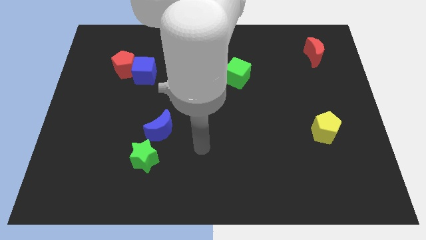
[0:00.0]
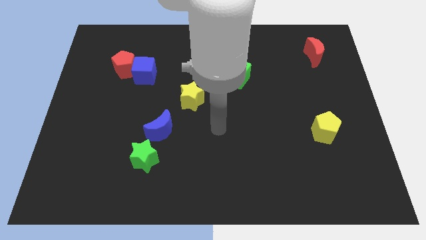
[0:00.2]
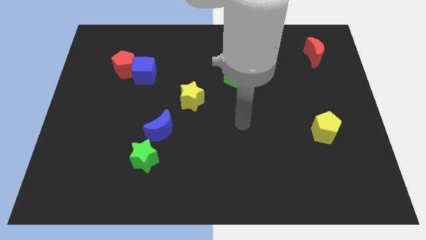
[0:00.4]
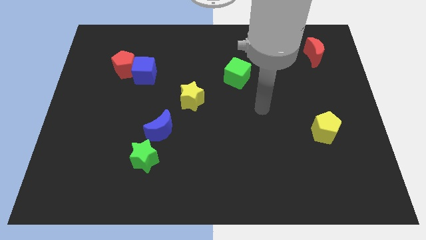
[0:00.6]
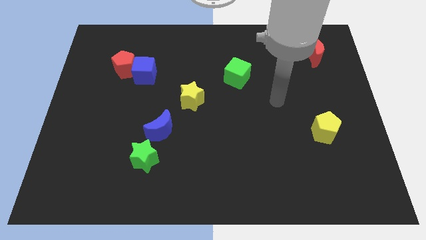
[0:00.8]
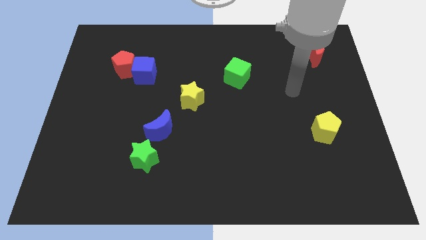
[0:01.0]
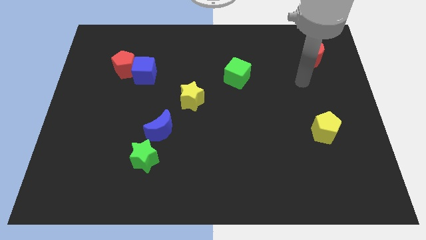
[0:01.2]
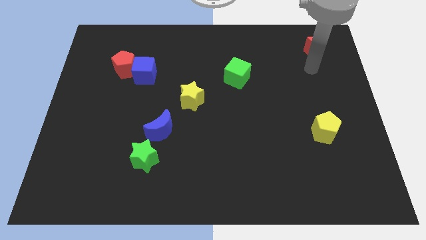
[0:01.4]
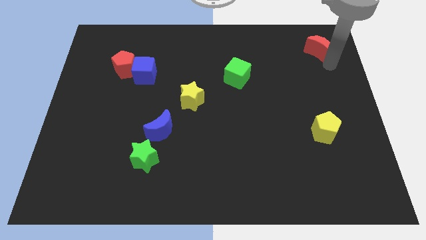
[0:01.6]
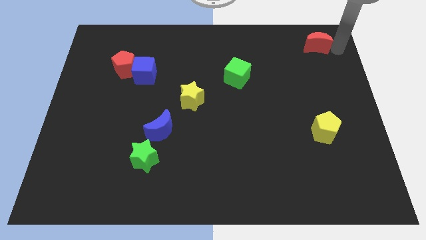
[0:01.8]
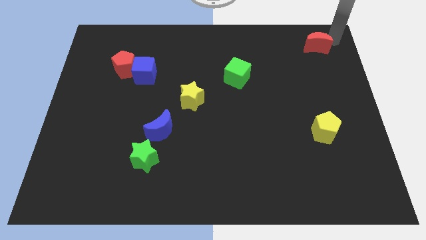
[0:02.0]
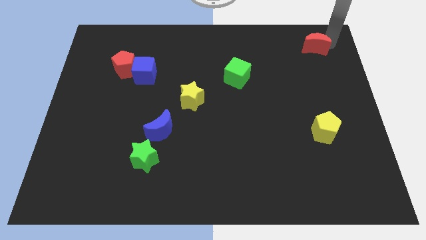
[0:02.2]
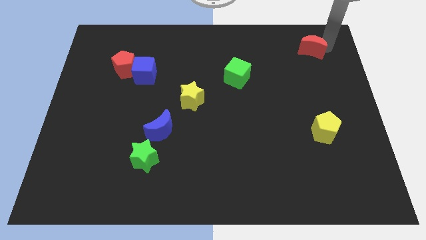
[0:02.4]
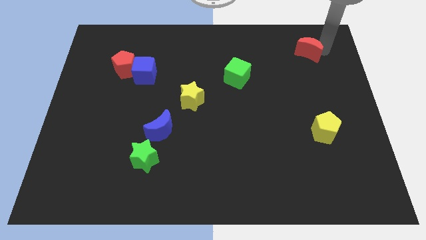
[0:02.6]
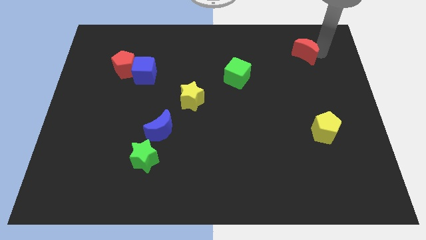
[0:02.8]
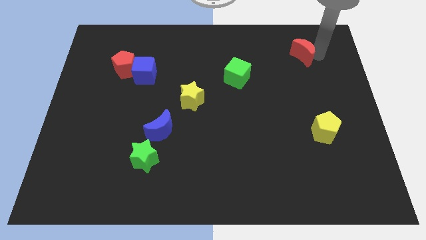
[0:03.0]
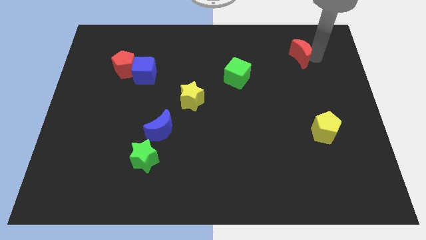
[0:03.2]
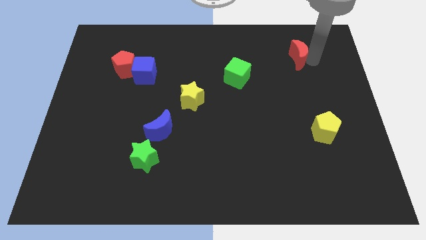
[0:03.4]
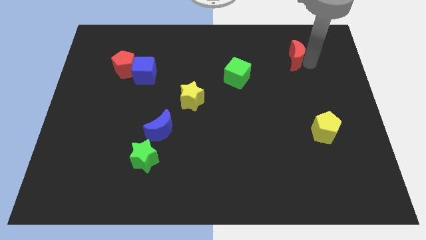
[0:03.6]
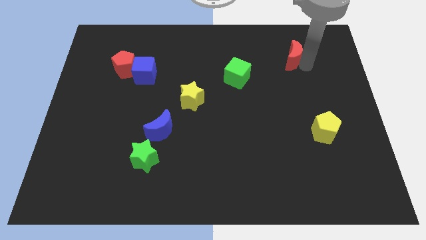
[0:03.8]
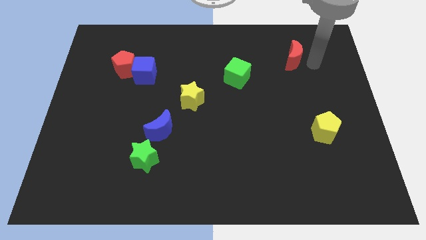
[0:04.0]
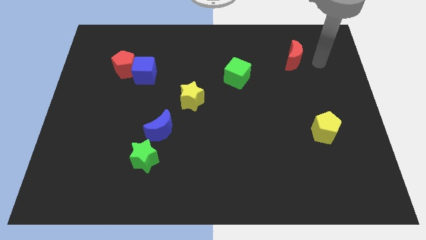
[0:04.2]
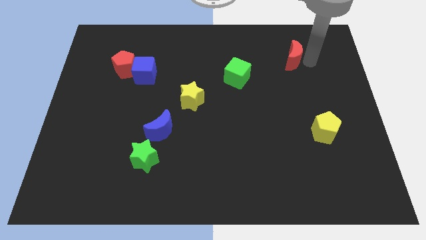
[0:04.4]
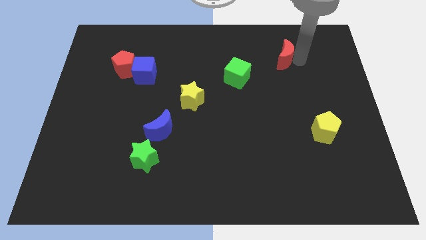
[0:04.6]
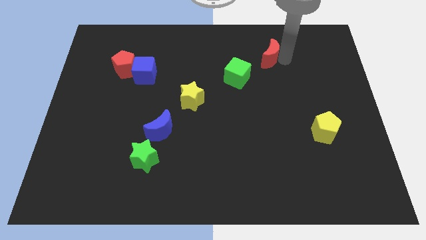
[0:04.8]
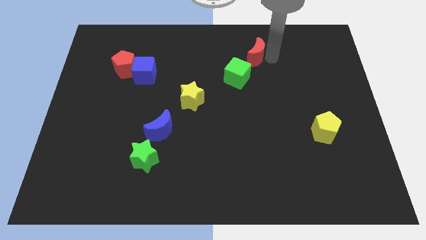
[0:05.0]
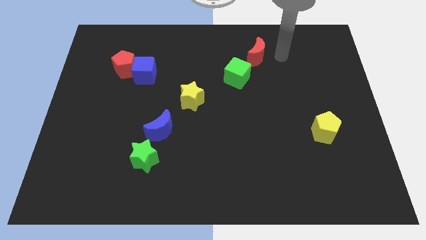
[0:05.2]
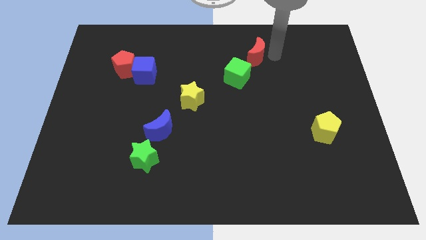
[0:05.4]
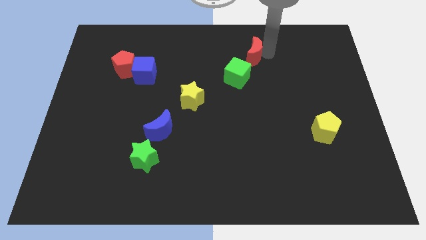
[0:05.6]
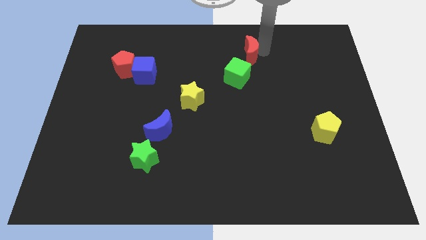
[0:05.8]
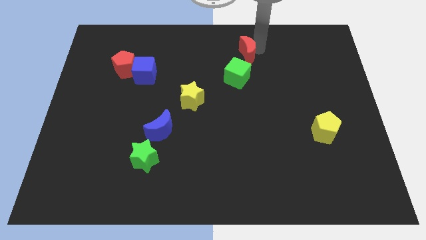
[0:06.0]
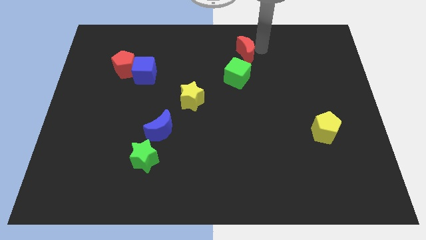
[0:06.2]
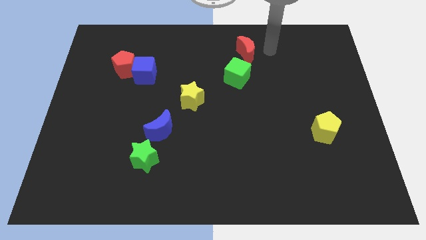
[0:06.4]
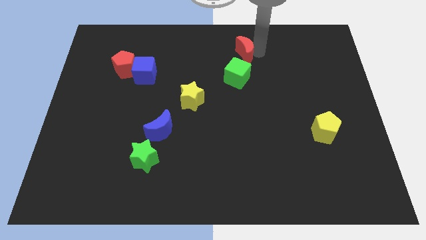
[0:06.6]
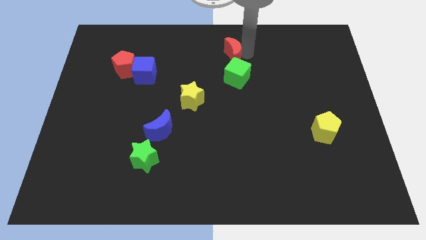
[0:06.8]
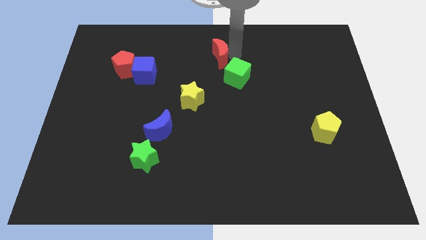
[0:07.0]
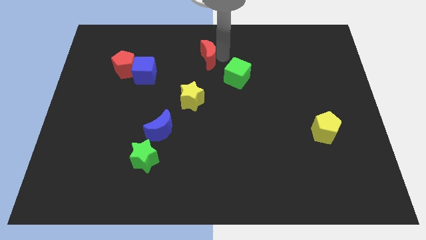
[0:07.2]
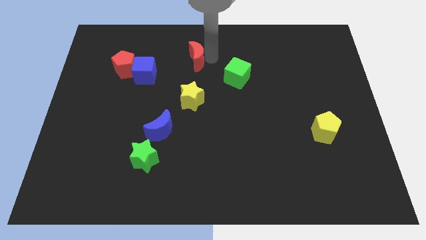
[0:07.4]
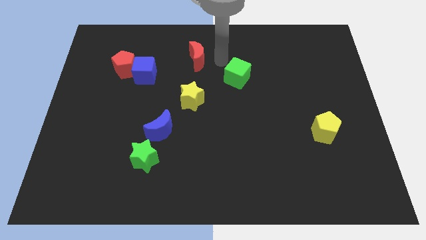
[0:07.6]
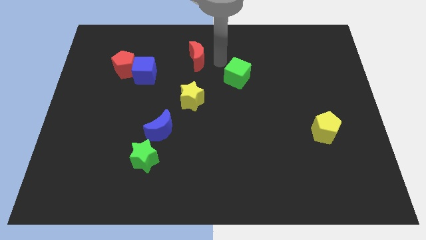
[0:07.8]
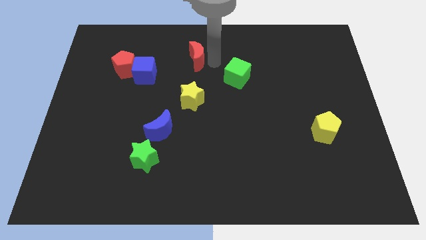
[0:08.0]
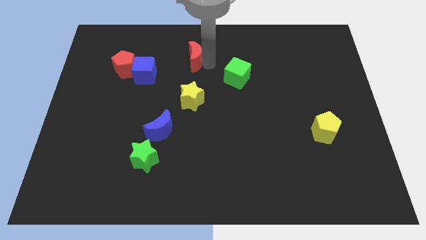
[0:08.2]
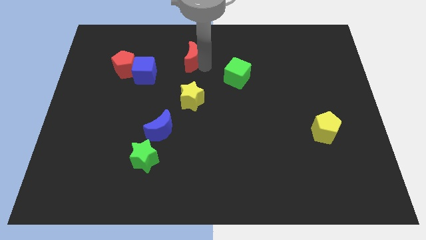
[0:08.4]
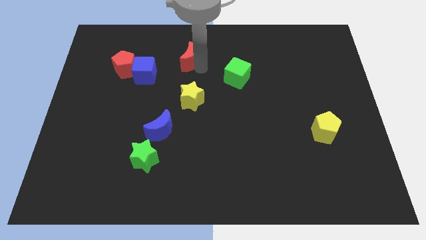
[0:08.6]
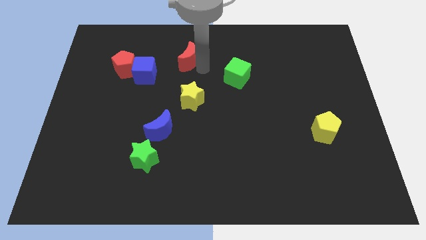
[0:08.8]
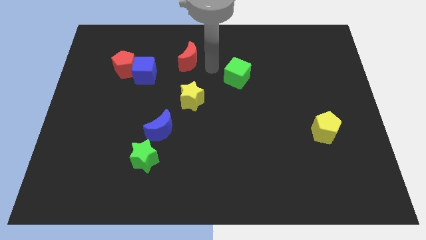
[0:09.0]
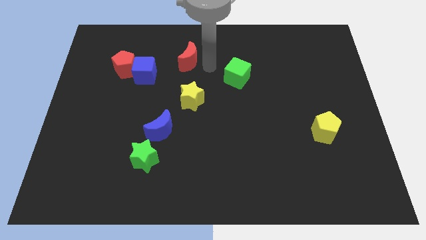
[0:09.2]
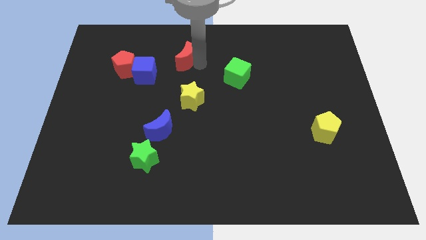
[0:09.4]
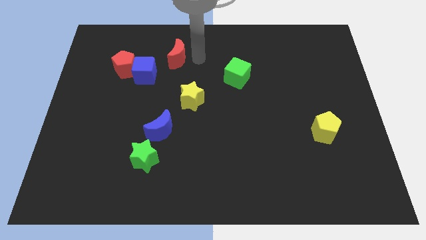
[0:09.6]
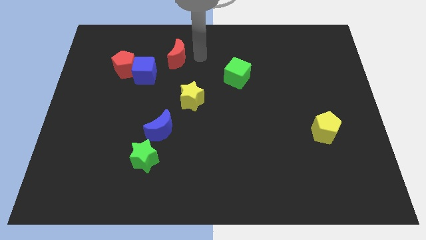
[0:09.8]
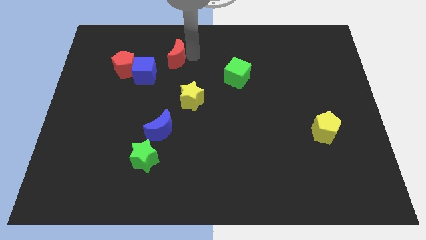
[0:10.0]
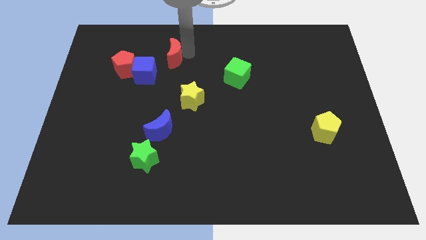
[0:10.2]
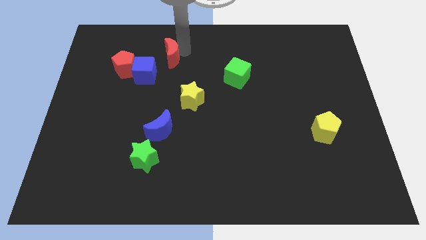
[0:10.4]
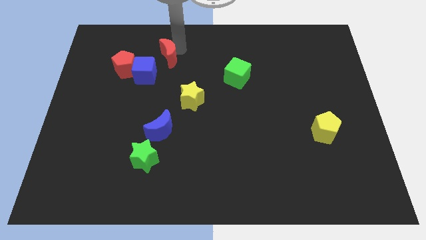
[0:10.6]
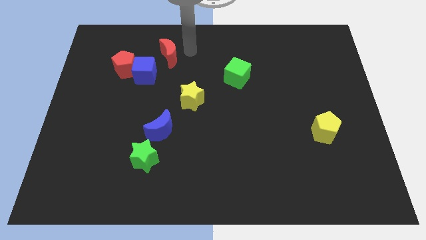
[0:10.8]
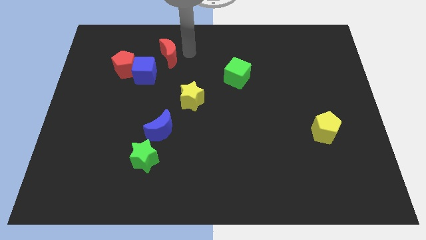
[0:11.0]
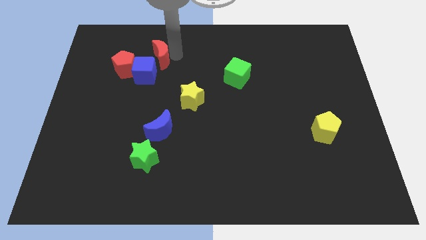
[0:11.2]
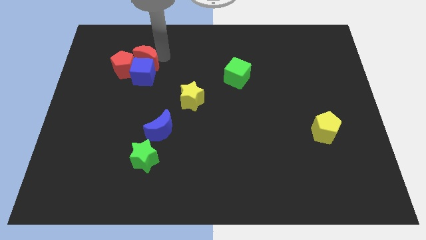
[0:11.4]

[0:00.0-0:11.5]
slide the red moon next to the red pentagon

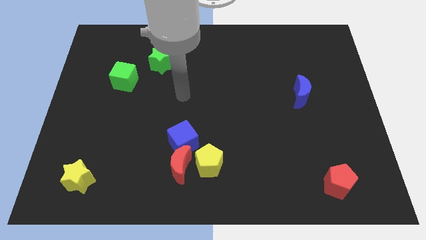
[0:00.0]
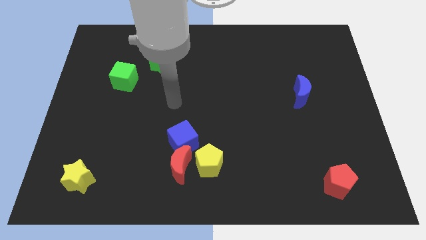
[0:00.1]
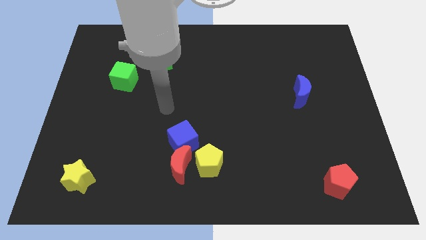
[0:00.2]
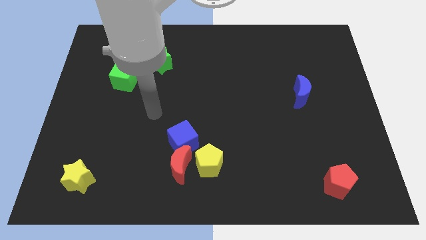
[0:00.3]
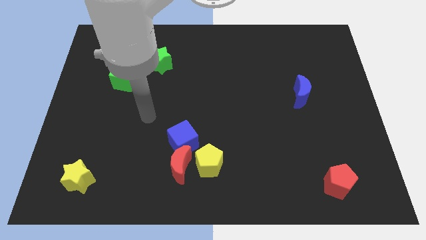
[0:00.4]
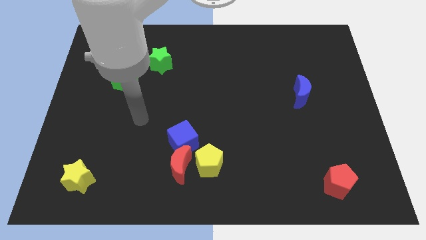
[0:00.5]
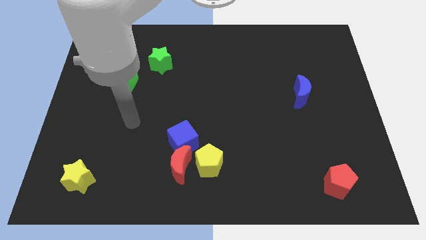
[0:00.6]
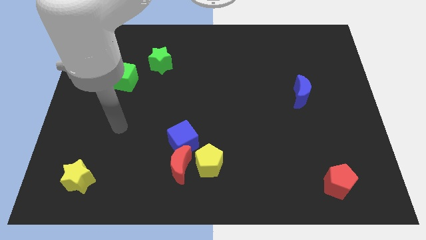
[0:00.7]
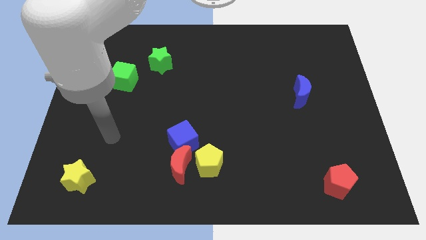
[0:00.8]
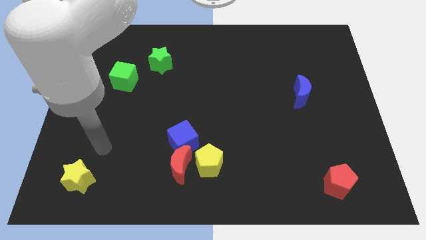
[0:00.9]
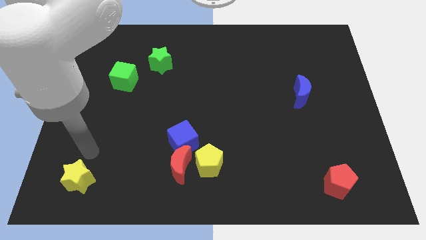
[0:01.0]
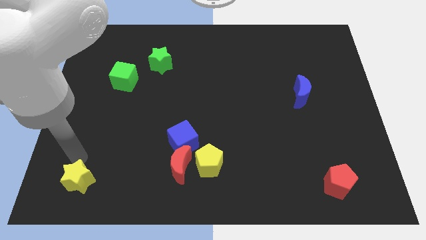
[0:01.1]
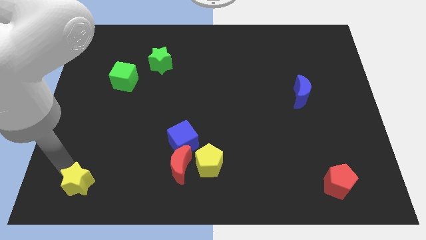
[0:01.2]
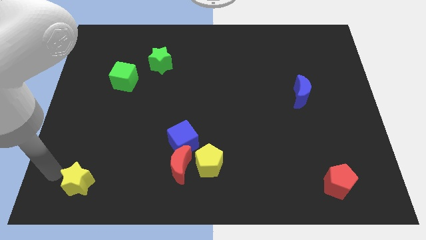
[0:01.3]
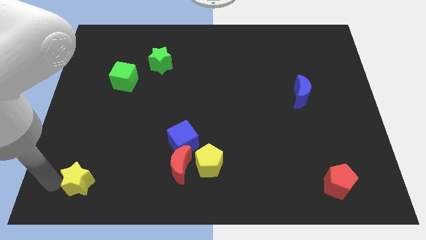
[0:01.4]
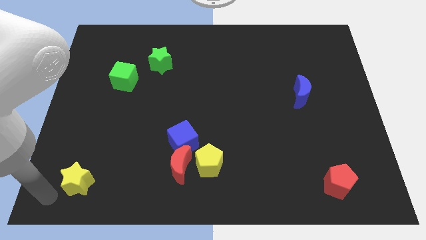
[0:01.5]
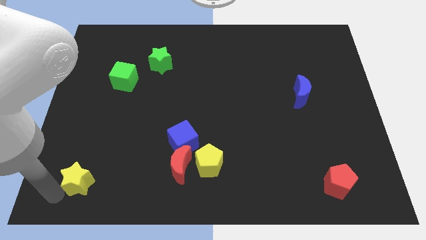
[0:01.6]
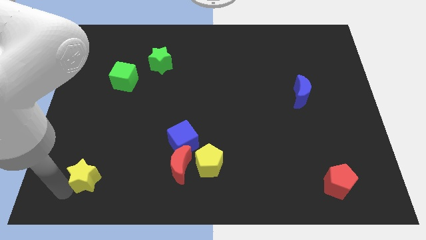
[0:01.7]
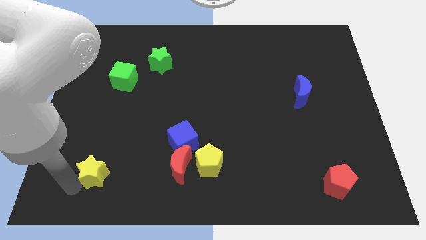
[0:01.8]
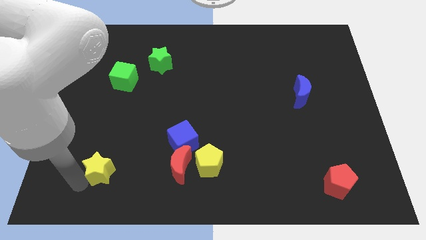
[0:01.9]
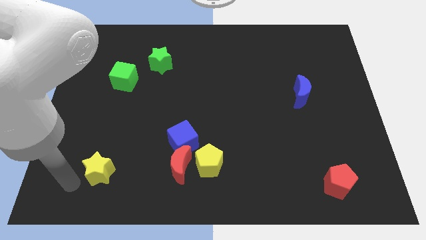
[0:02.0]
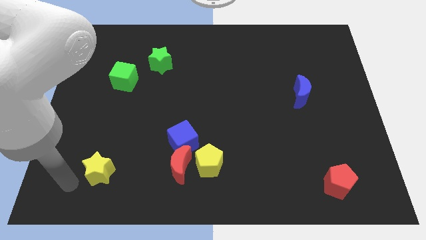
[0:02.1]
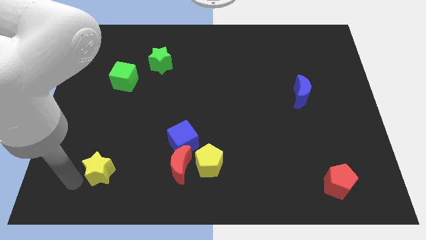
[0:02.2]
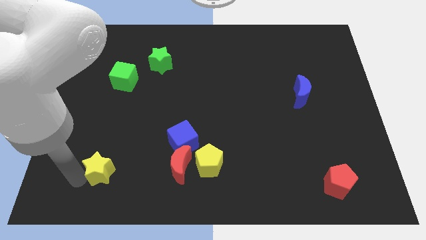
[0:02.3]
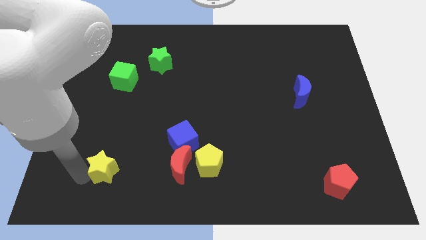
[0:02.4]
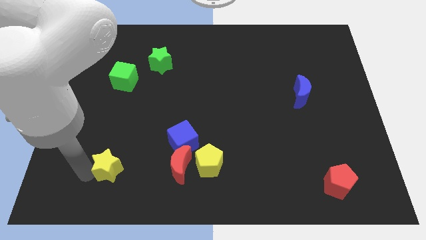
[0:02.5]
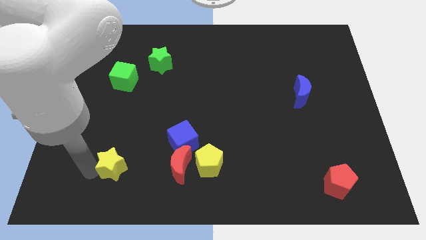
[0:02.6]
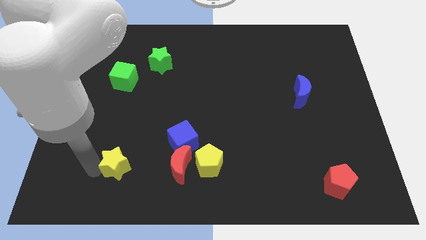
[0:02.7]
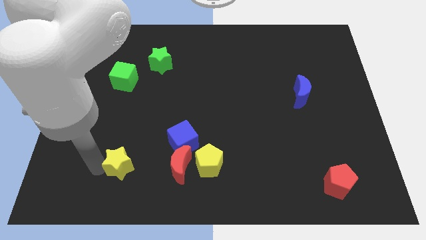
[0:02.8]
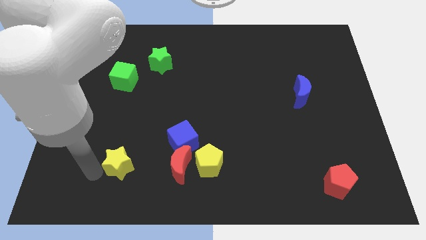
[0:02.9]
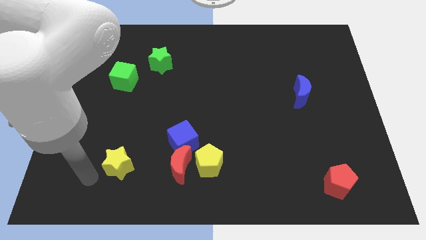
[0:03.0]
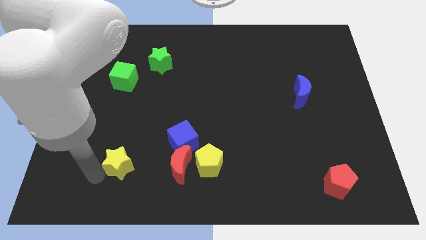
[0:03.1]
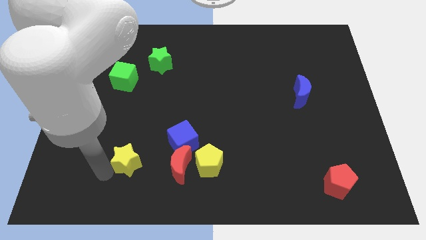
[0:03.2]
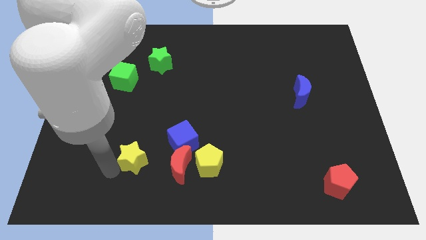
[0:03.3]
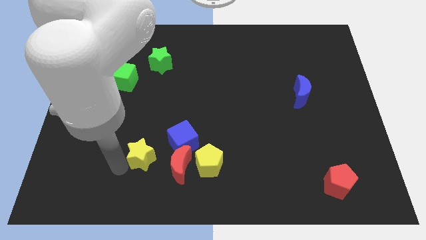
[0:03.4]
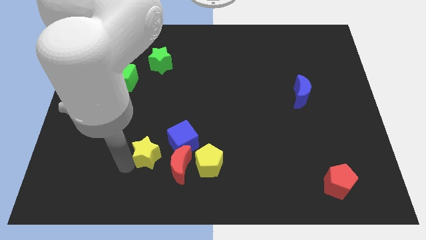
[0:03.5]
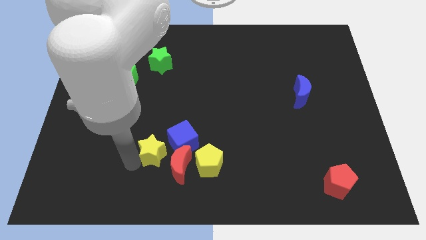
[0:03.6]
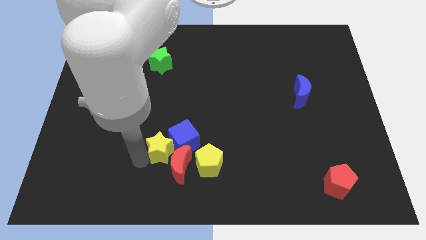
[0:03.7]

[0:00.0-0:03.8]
put the yellow star next to the blue cube
